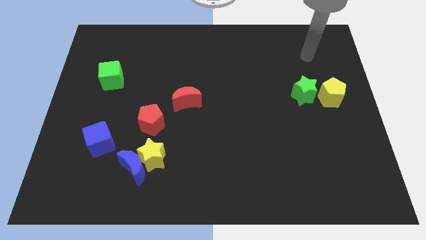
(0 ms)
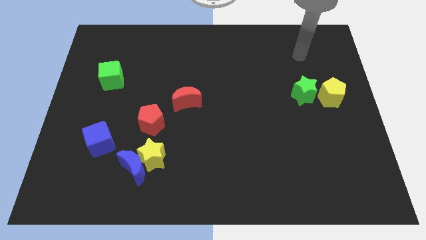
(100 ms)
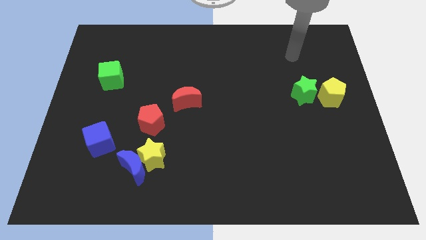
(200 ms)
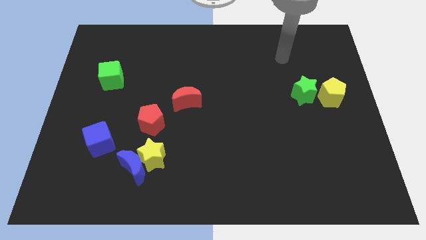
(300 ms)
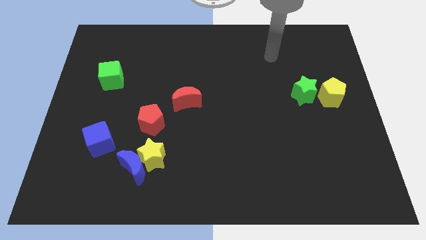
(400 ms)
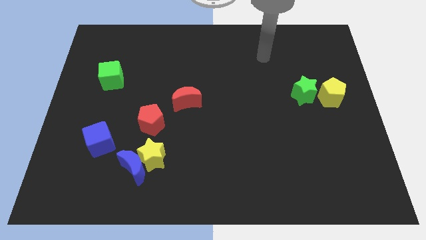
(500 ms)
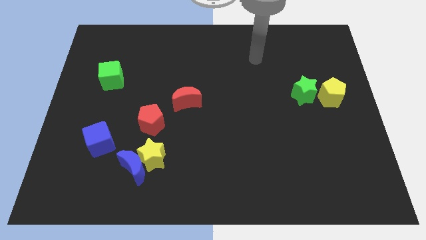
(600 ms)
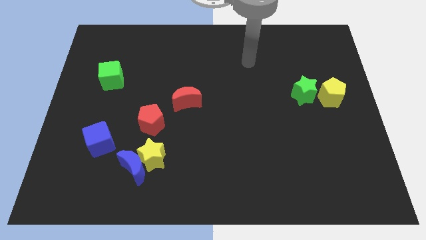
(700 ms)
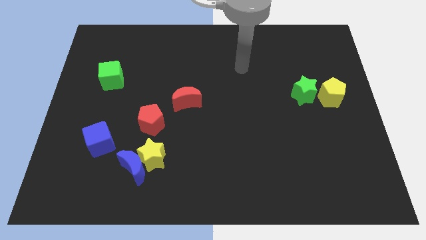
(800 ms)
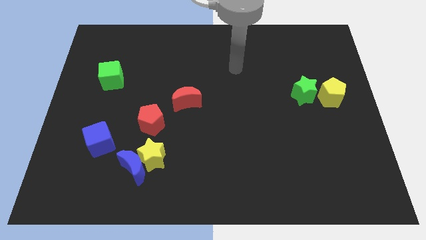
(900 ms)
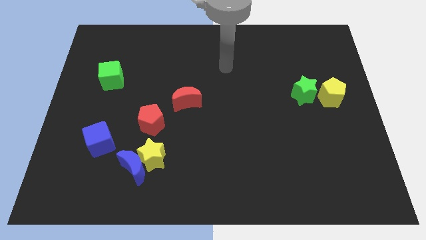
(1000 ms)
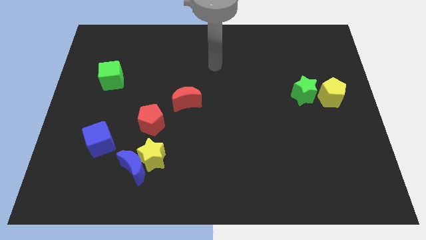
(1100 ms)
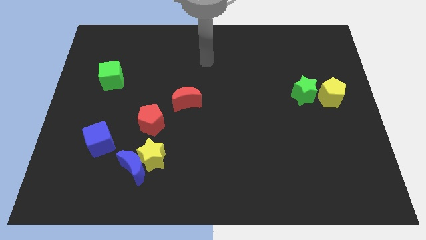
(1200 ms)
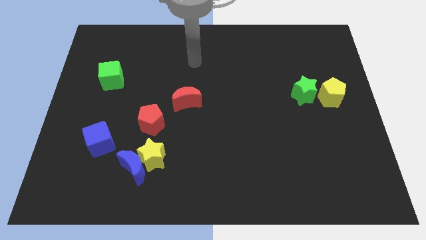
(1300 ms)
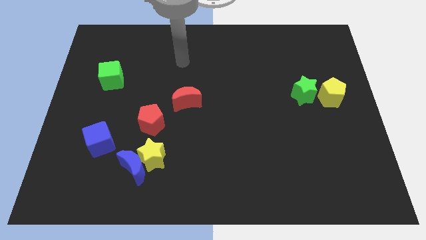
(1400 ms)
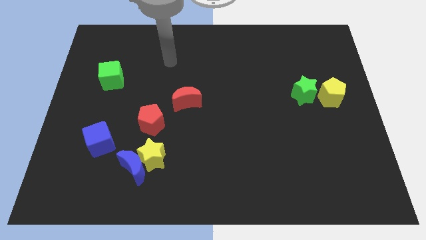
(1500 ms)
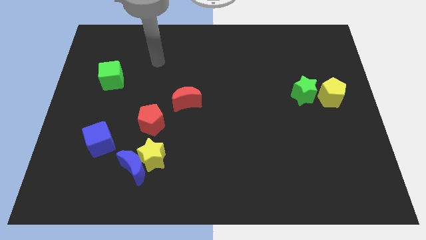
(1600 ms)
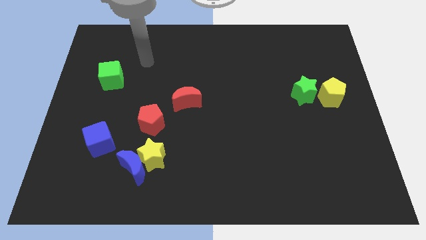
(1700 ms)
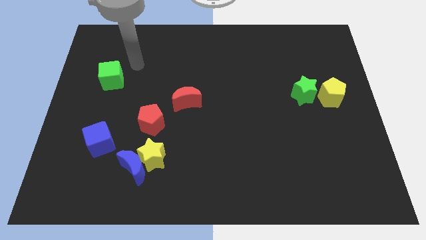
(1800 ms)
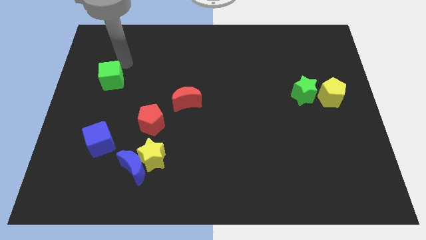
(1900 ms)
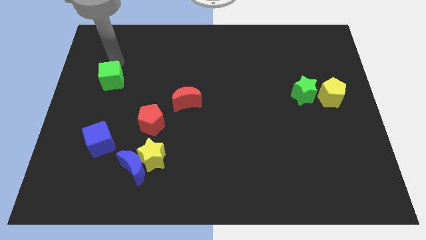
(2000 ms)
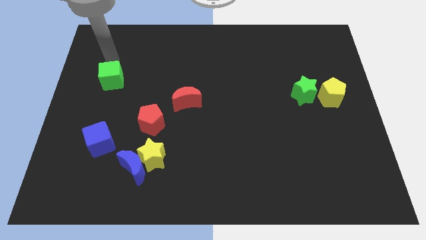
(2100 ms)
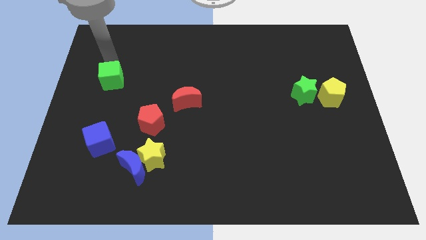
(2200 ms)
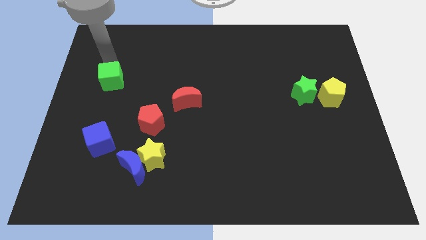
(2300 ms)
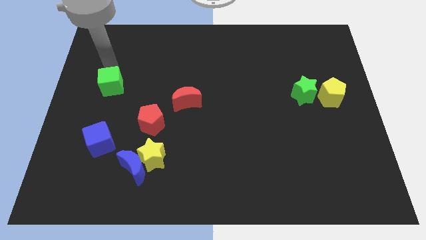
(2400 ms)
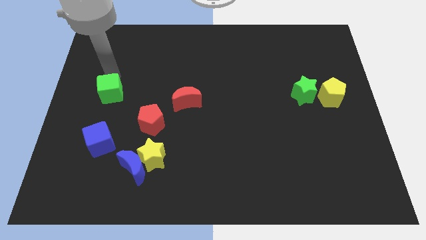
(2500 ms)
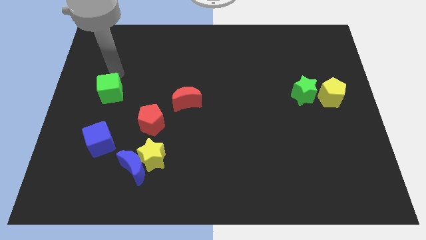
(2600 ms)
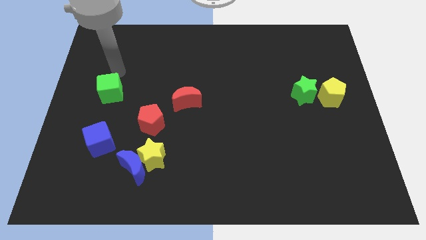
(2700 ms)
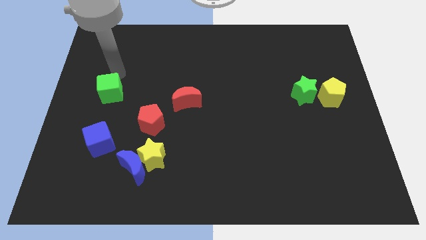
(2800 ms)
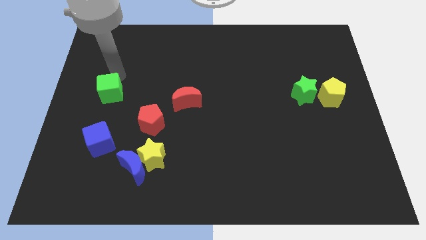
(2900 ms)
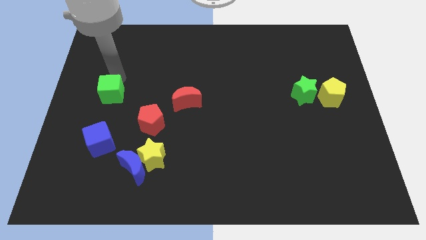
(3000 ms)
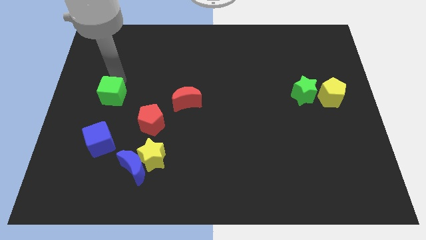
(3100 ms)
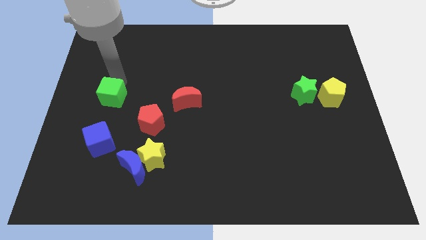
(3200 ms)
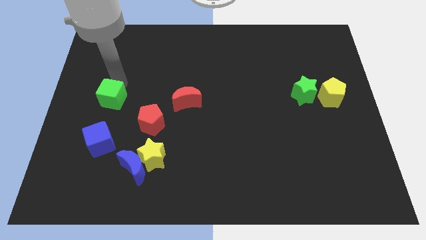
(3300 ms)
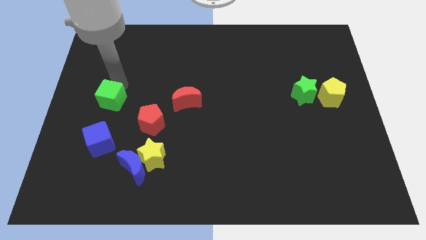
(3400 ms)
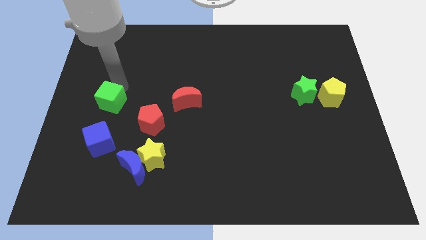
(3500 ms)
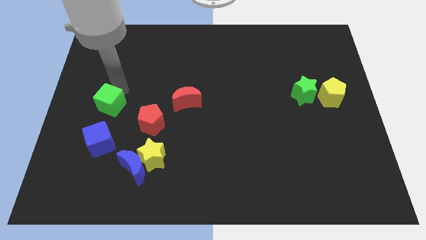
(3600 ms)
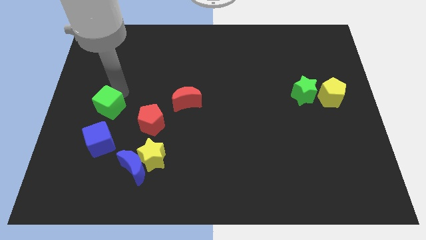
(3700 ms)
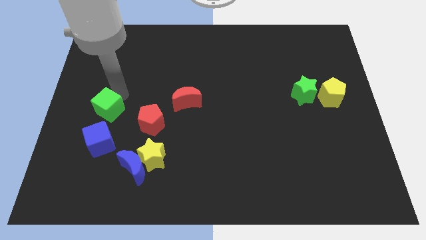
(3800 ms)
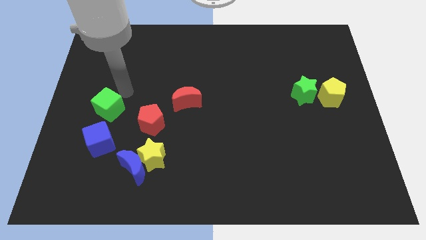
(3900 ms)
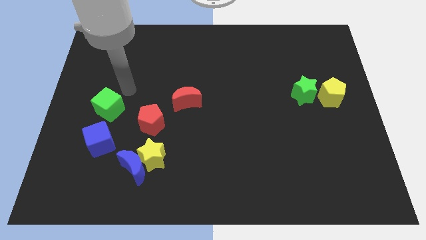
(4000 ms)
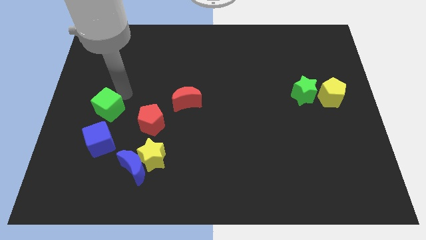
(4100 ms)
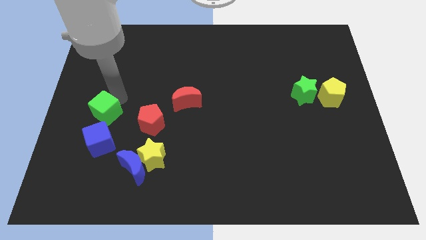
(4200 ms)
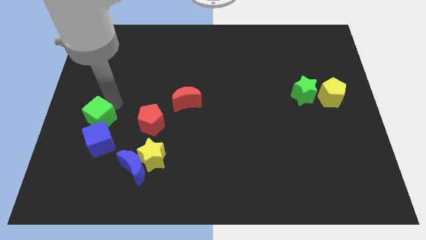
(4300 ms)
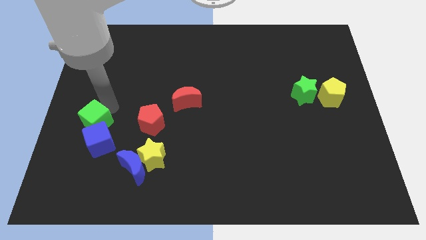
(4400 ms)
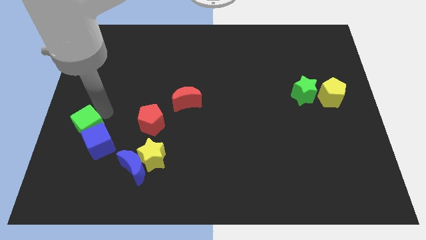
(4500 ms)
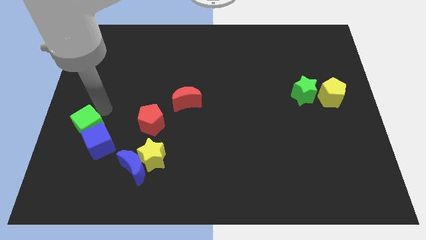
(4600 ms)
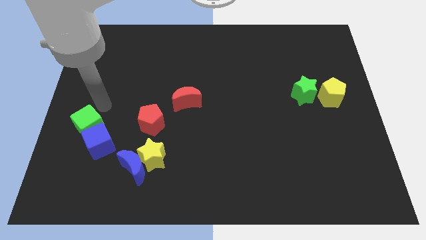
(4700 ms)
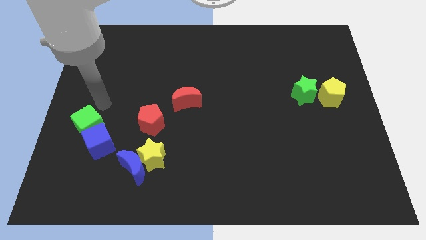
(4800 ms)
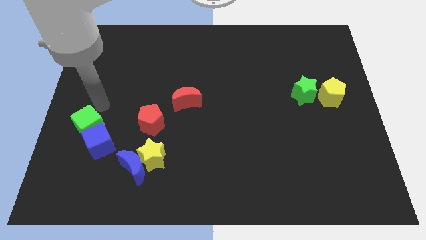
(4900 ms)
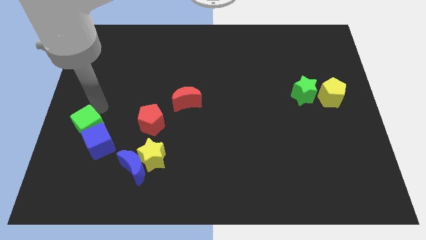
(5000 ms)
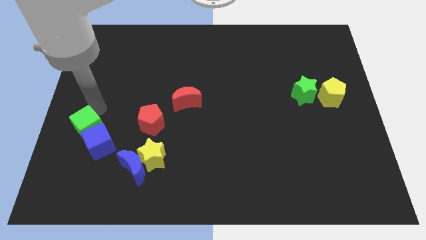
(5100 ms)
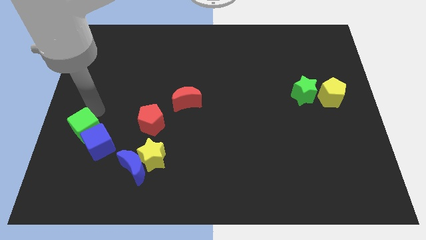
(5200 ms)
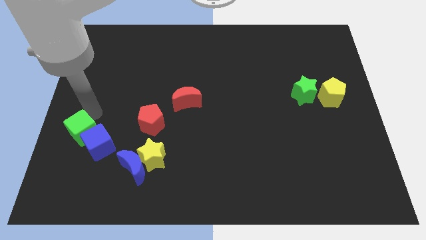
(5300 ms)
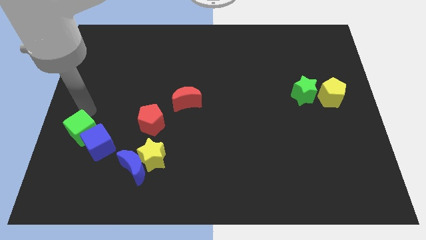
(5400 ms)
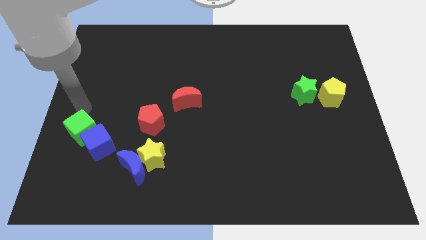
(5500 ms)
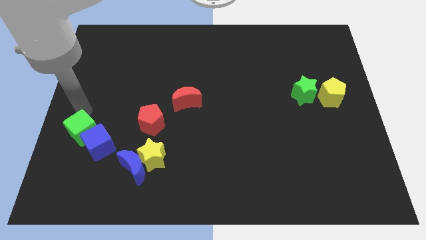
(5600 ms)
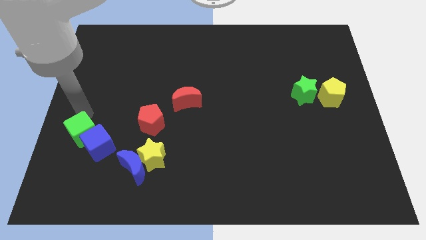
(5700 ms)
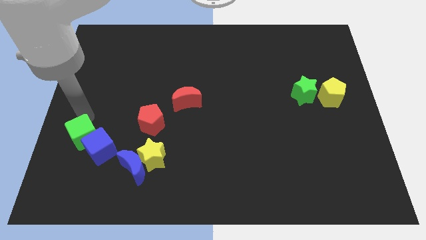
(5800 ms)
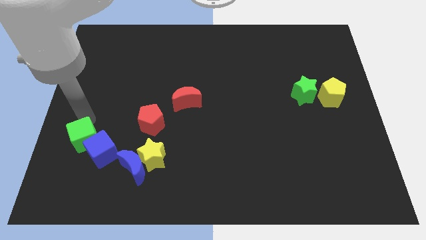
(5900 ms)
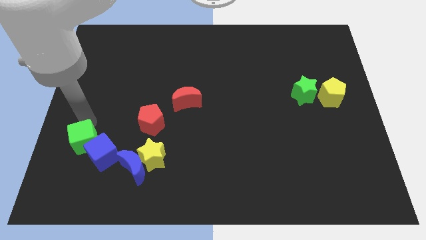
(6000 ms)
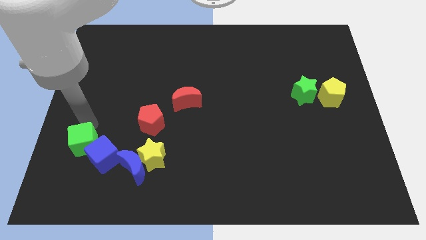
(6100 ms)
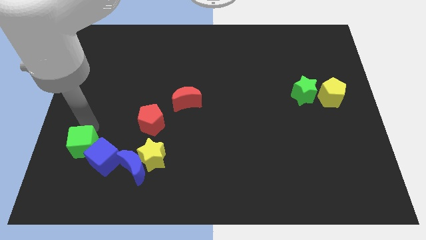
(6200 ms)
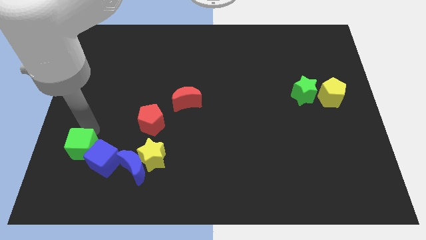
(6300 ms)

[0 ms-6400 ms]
slide the green cube to the left of the blue moon

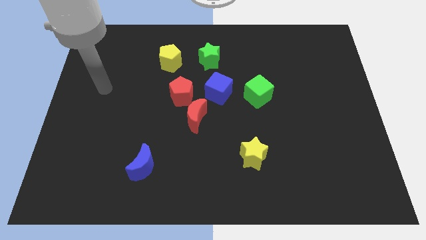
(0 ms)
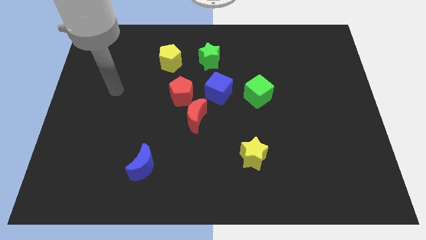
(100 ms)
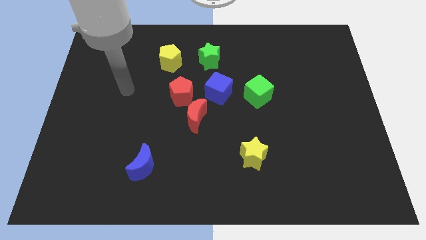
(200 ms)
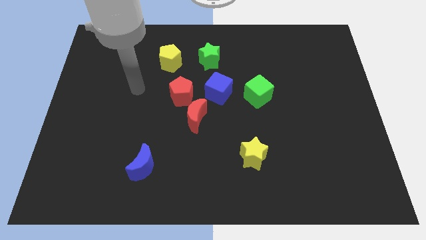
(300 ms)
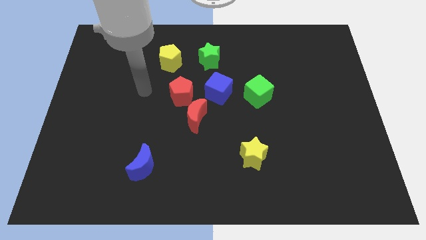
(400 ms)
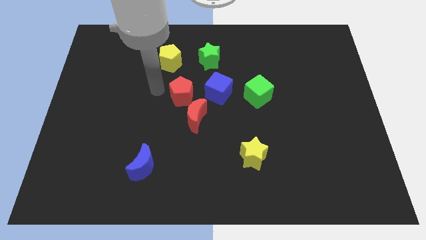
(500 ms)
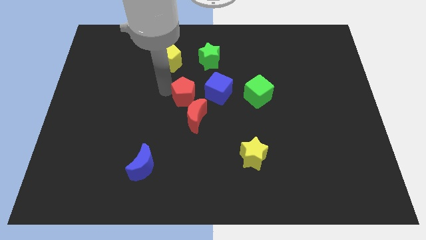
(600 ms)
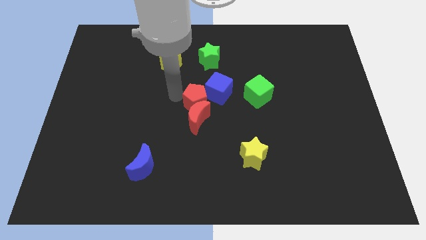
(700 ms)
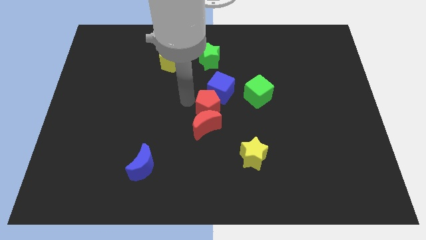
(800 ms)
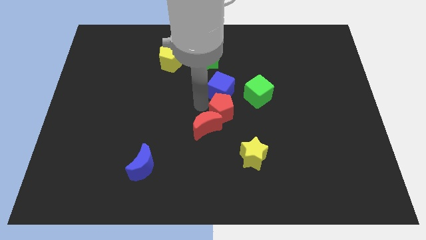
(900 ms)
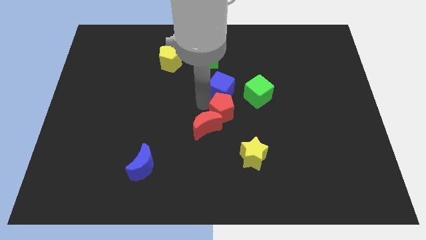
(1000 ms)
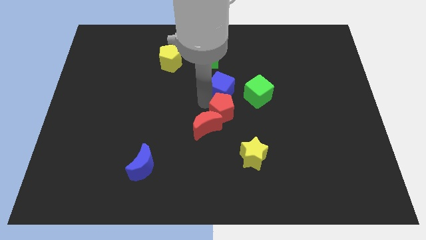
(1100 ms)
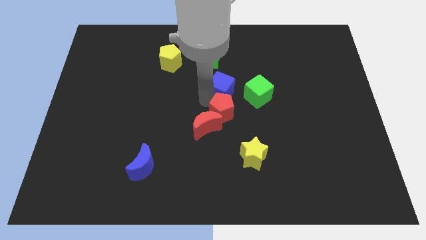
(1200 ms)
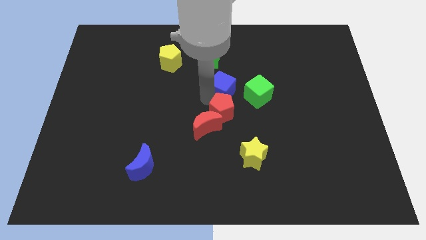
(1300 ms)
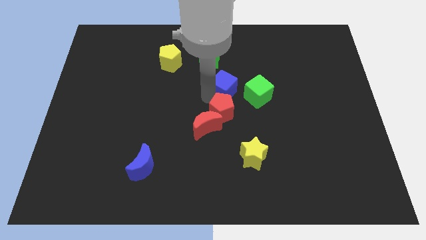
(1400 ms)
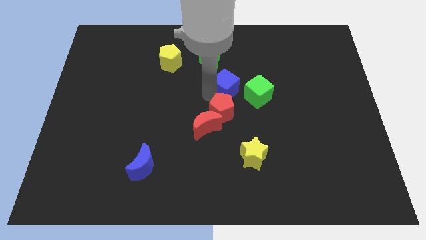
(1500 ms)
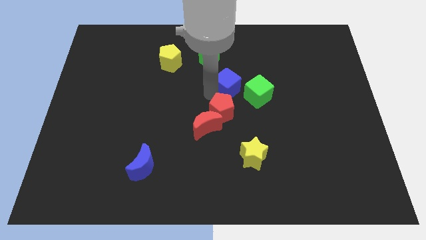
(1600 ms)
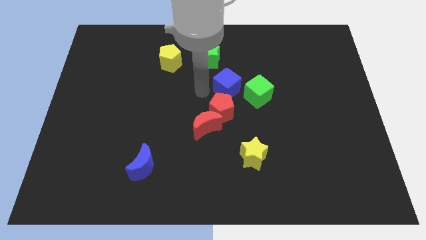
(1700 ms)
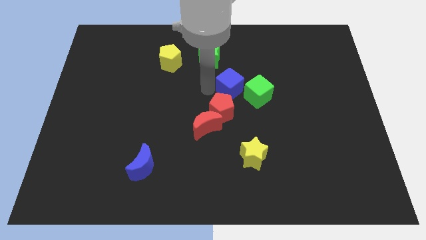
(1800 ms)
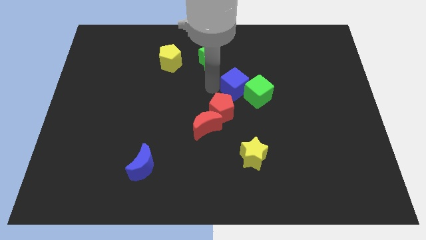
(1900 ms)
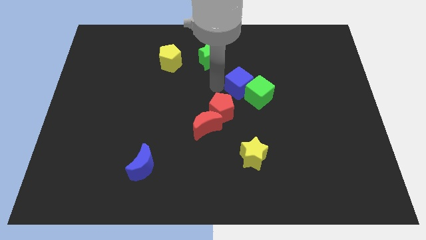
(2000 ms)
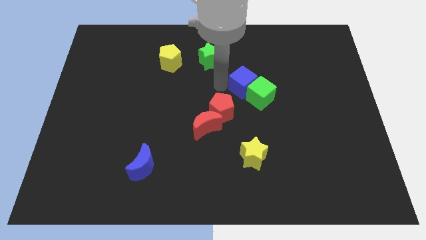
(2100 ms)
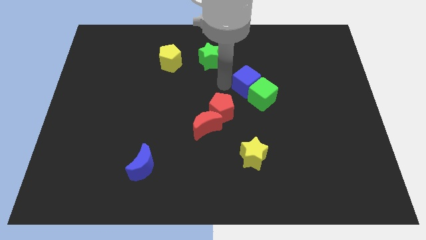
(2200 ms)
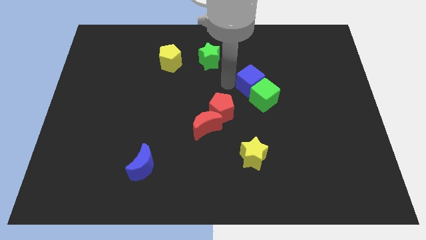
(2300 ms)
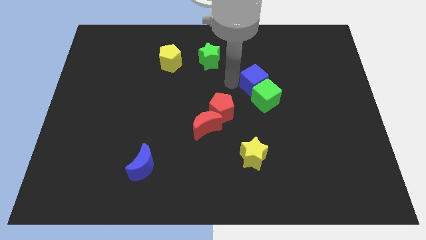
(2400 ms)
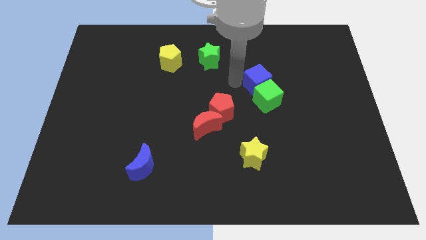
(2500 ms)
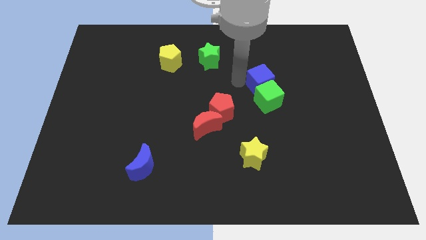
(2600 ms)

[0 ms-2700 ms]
push the blue cube to the top right of the green cube
